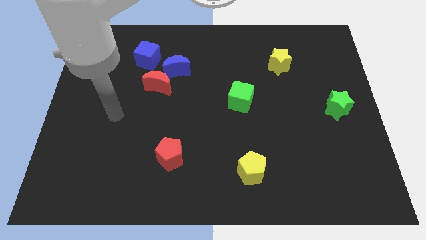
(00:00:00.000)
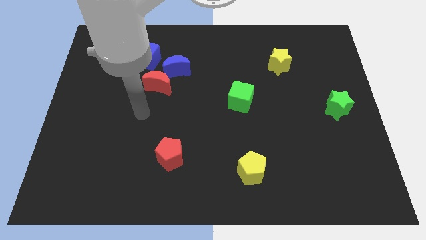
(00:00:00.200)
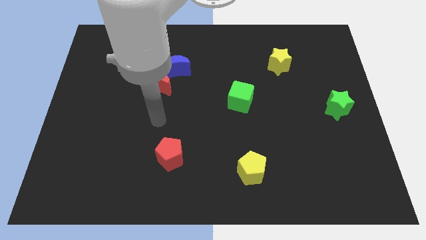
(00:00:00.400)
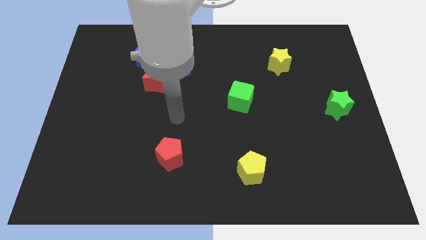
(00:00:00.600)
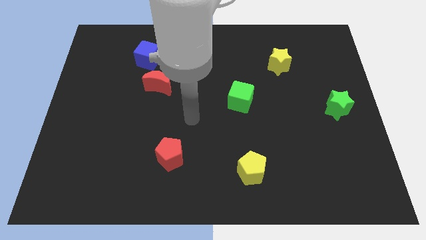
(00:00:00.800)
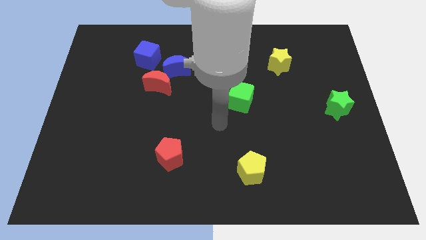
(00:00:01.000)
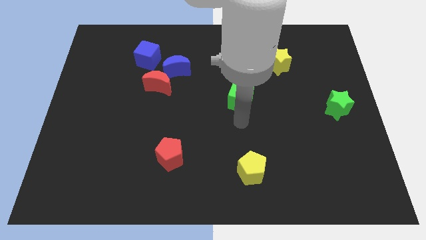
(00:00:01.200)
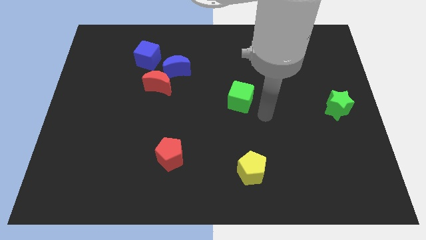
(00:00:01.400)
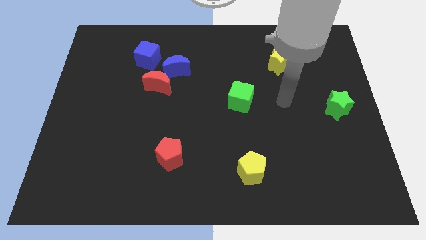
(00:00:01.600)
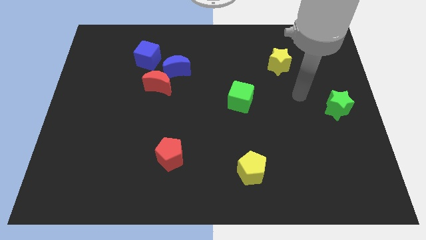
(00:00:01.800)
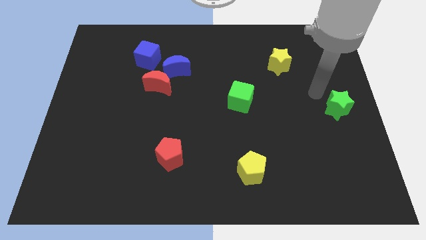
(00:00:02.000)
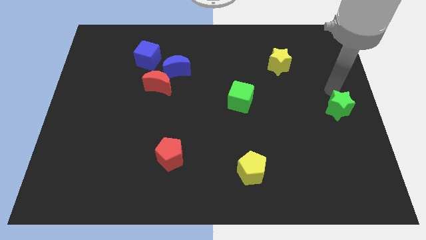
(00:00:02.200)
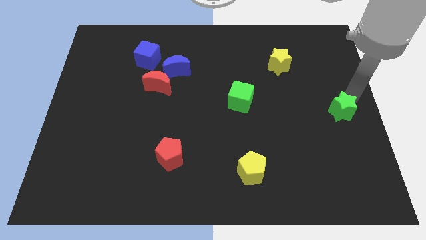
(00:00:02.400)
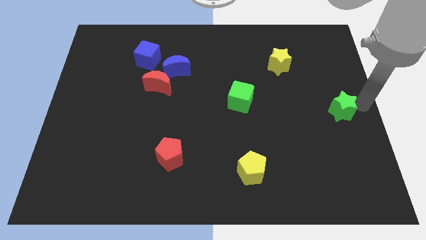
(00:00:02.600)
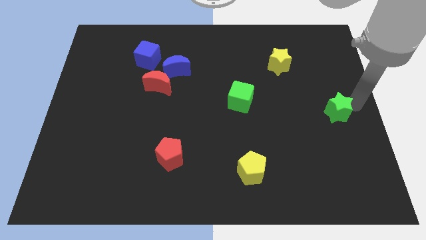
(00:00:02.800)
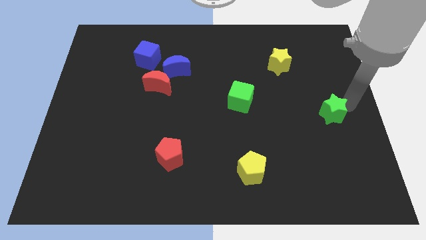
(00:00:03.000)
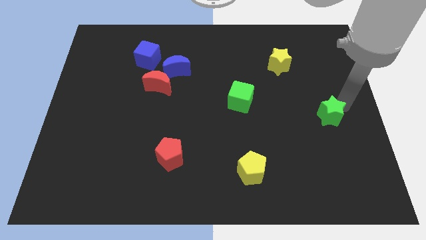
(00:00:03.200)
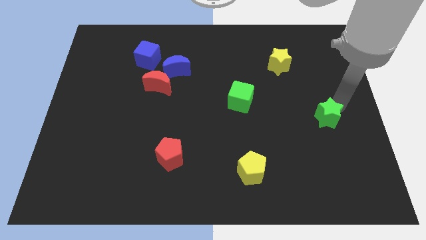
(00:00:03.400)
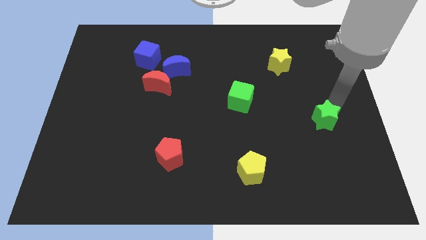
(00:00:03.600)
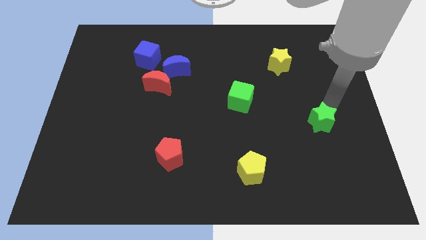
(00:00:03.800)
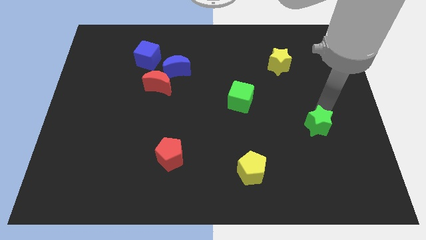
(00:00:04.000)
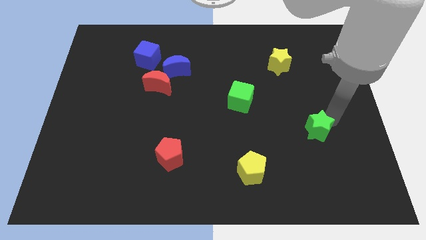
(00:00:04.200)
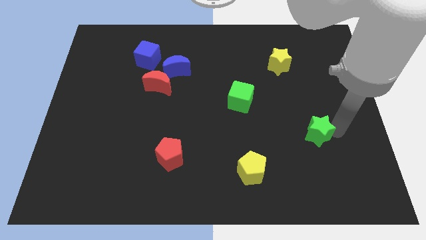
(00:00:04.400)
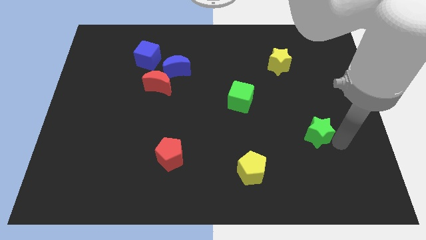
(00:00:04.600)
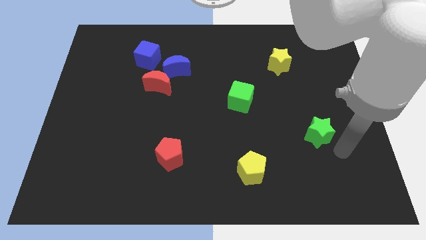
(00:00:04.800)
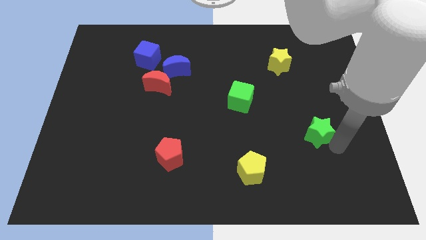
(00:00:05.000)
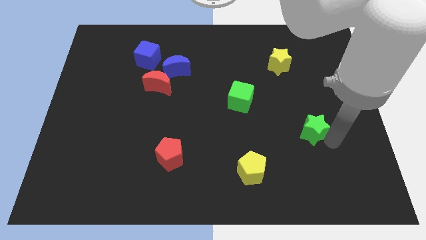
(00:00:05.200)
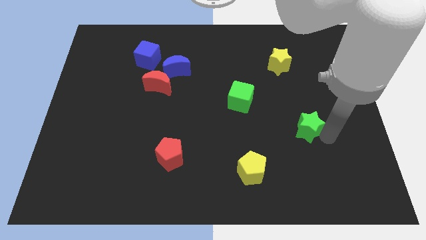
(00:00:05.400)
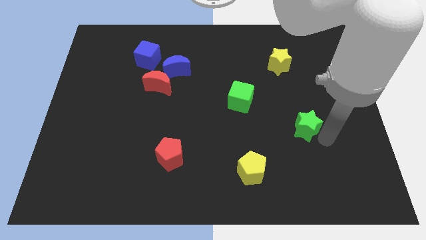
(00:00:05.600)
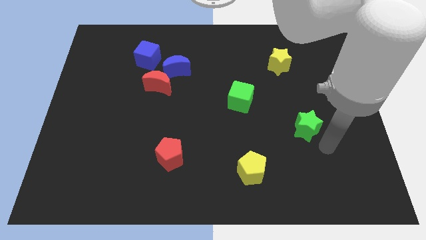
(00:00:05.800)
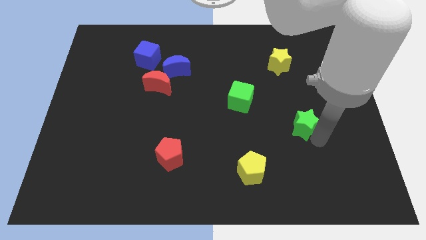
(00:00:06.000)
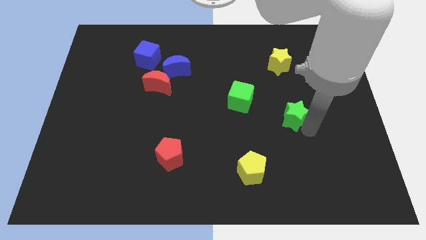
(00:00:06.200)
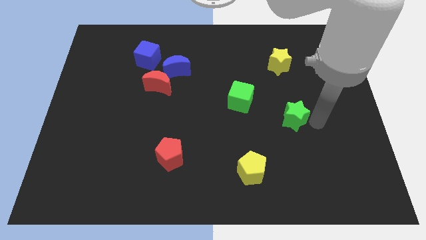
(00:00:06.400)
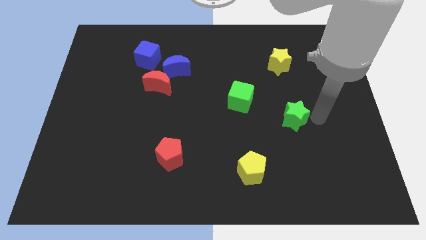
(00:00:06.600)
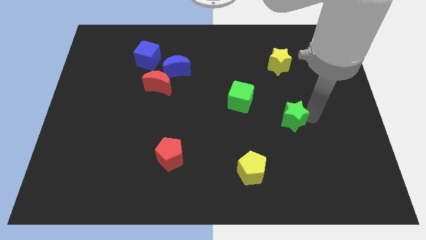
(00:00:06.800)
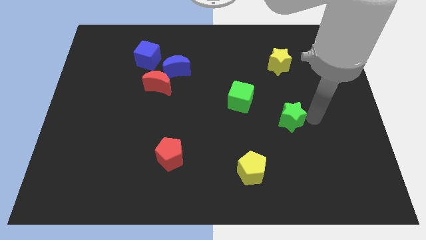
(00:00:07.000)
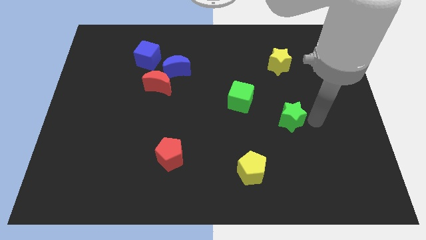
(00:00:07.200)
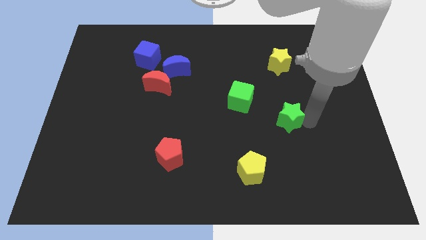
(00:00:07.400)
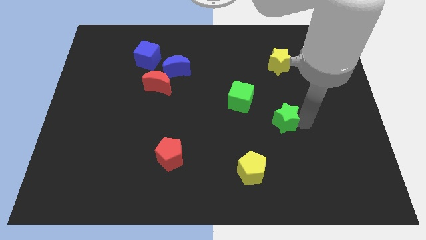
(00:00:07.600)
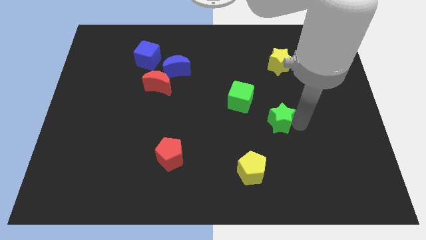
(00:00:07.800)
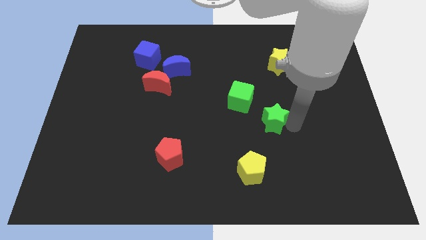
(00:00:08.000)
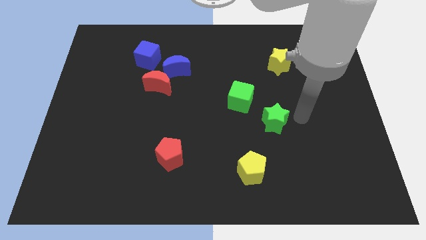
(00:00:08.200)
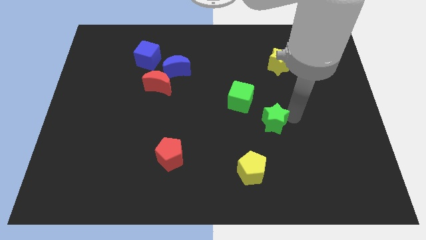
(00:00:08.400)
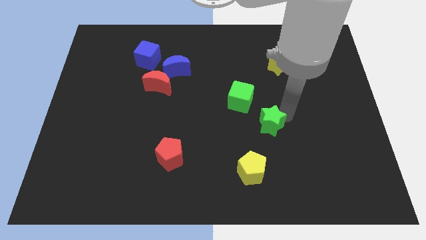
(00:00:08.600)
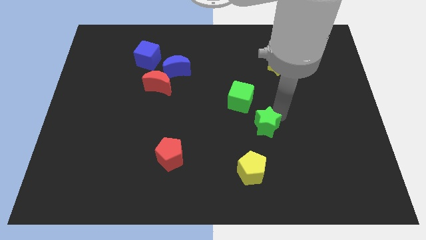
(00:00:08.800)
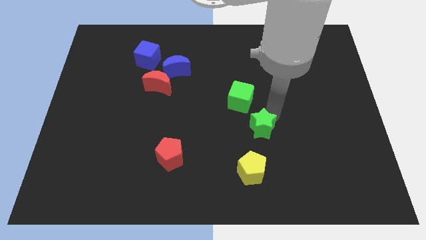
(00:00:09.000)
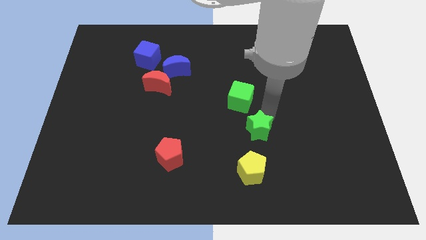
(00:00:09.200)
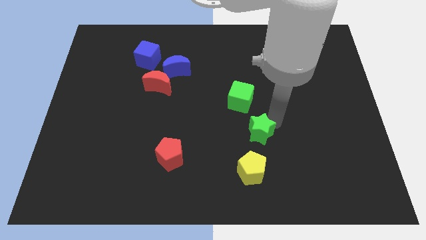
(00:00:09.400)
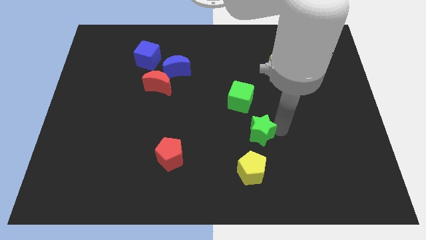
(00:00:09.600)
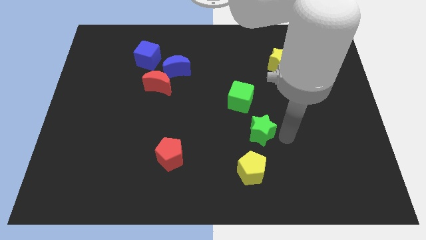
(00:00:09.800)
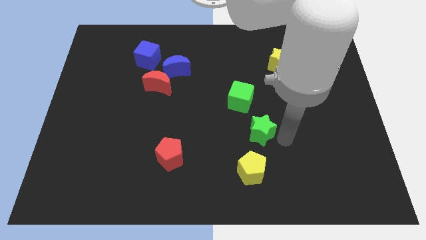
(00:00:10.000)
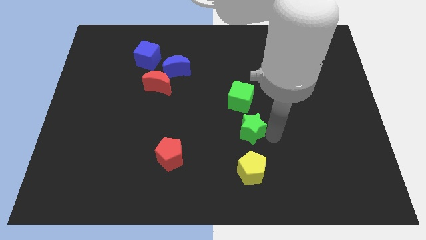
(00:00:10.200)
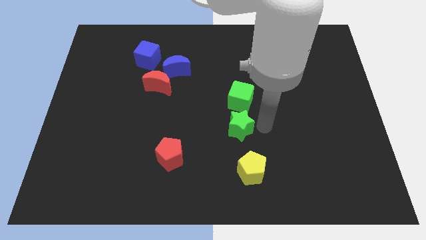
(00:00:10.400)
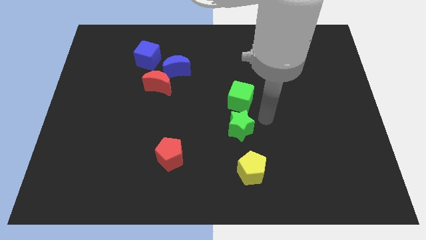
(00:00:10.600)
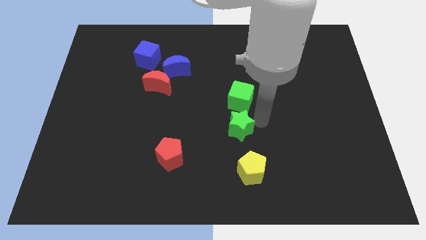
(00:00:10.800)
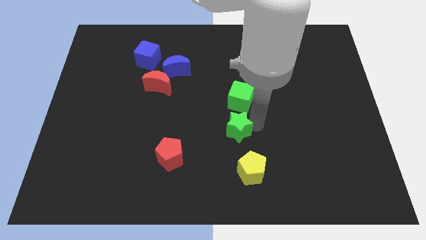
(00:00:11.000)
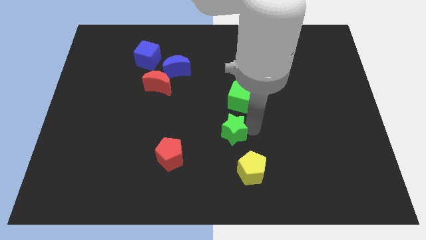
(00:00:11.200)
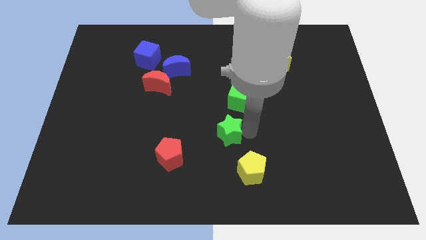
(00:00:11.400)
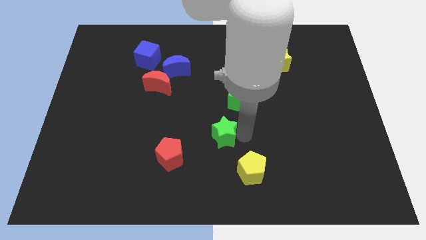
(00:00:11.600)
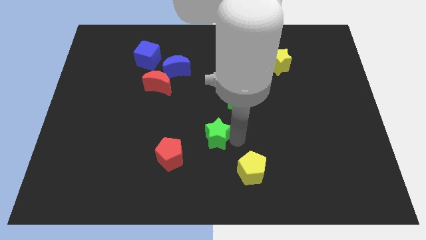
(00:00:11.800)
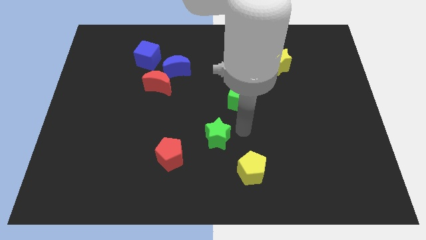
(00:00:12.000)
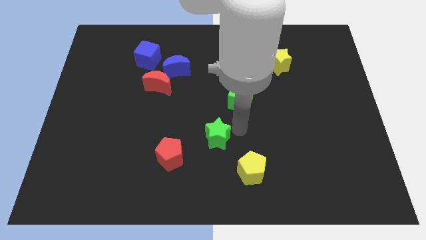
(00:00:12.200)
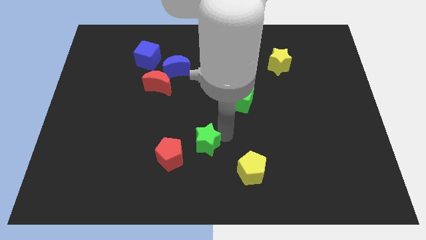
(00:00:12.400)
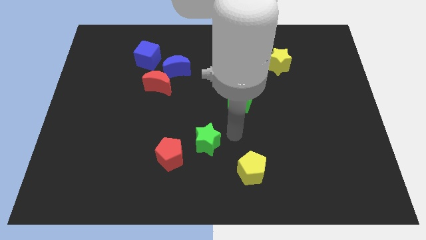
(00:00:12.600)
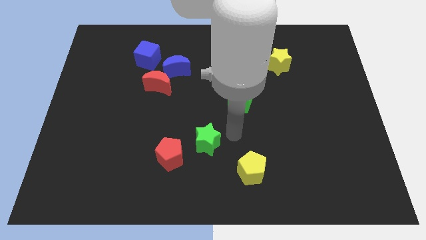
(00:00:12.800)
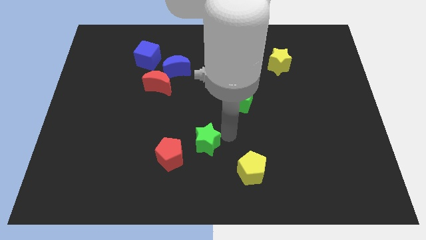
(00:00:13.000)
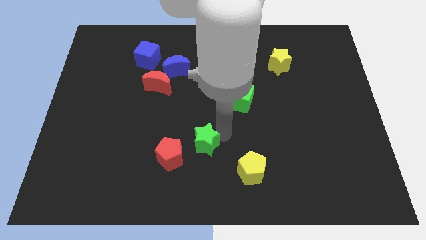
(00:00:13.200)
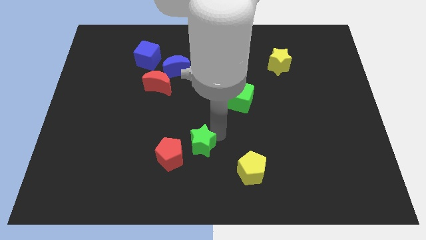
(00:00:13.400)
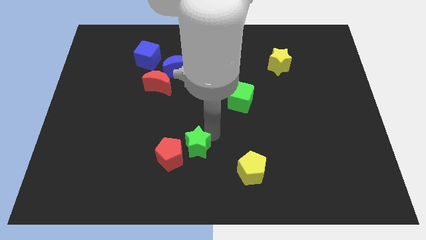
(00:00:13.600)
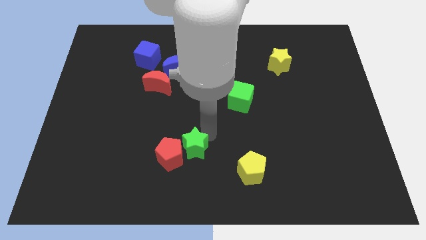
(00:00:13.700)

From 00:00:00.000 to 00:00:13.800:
put the green star to the red pentagon

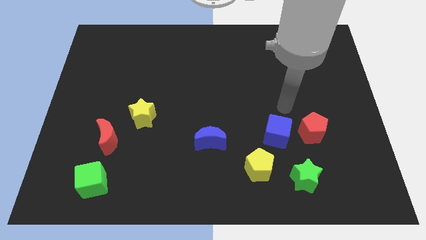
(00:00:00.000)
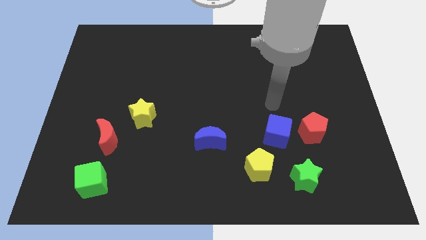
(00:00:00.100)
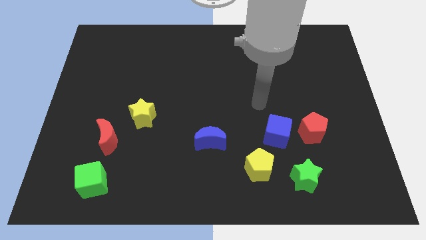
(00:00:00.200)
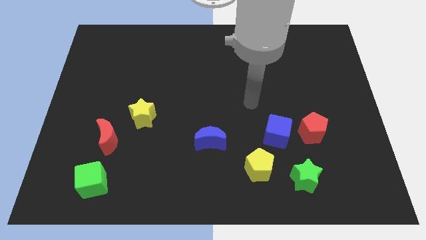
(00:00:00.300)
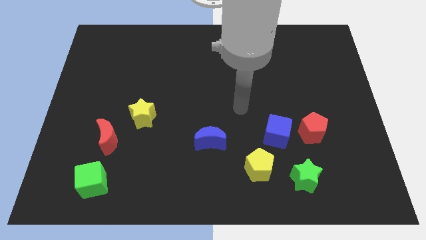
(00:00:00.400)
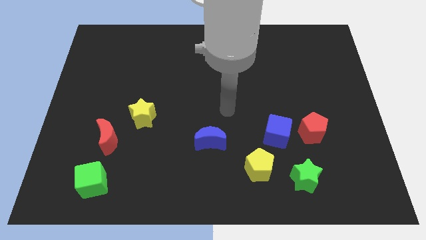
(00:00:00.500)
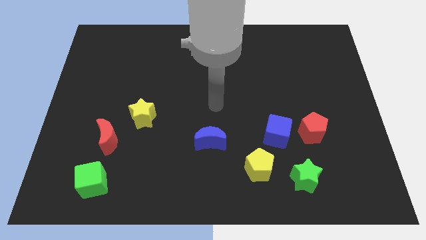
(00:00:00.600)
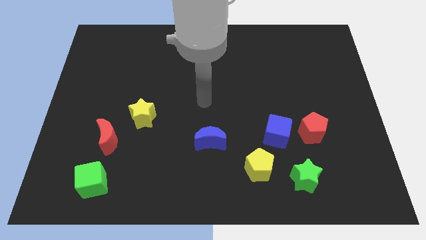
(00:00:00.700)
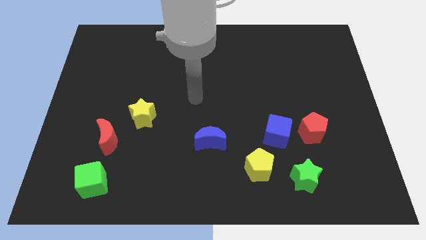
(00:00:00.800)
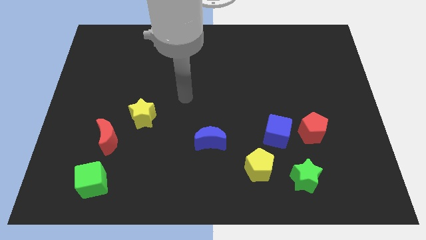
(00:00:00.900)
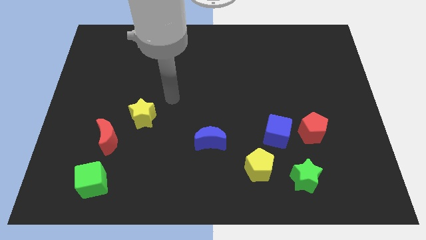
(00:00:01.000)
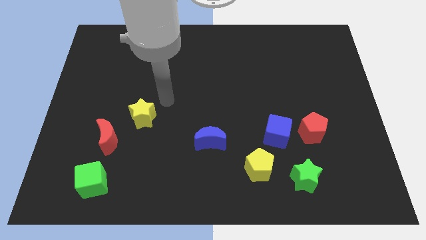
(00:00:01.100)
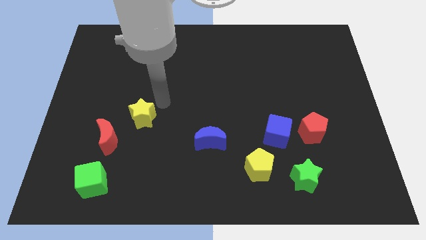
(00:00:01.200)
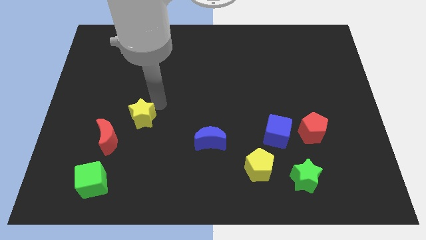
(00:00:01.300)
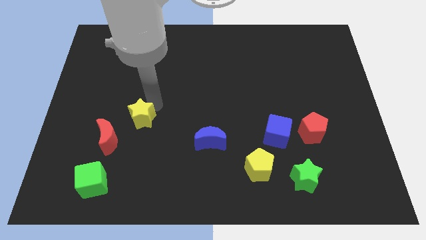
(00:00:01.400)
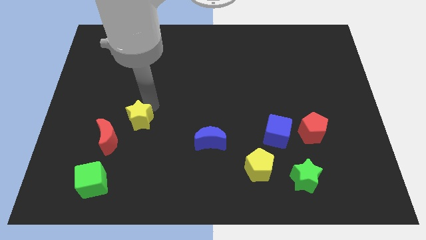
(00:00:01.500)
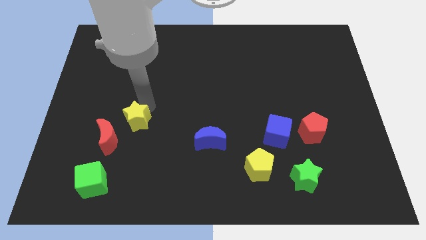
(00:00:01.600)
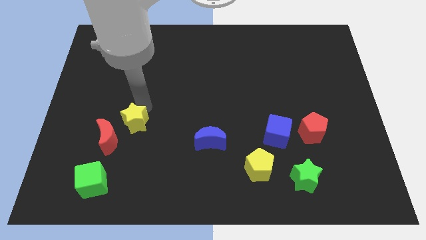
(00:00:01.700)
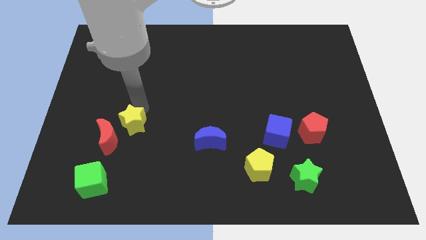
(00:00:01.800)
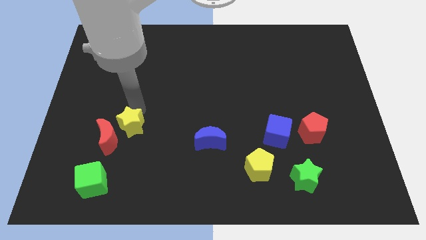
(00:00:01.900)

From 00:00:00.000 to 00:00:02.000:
push the yellow star towards the red moon
